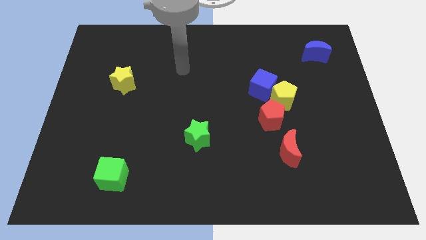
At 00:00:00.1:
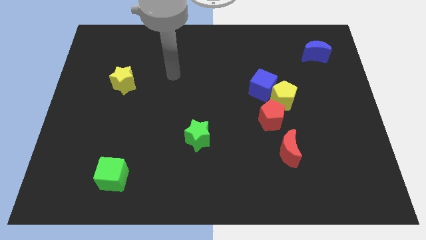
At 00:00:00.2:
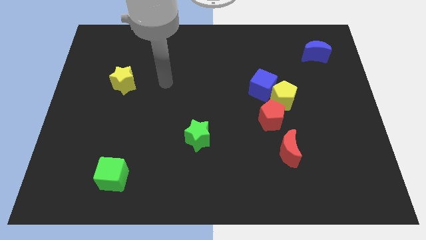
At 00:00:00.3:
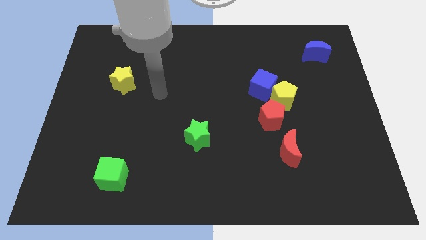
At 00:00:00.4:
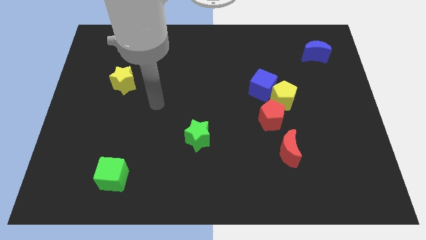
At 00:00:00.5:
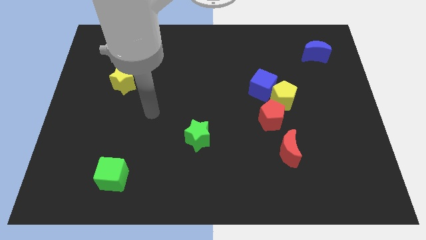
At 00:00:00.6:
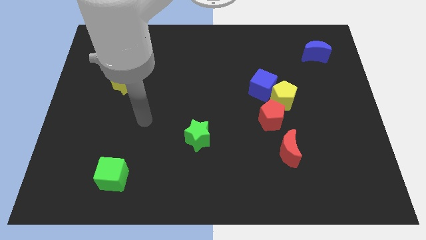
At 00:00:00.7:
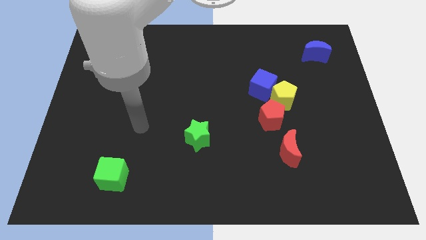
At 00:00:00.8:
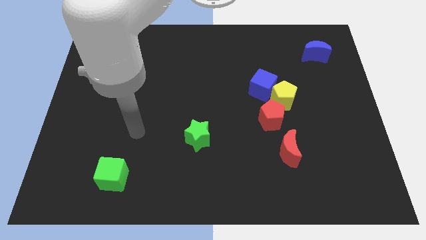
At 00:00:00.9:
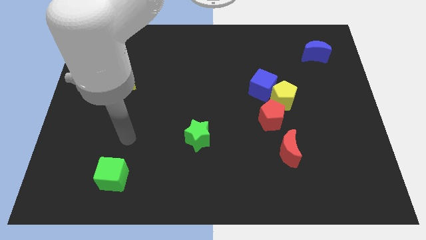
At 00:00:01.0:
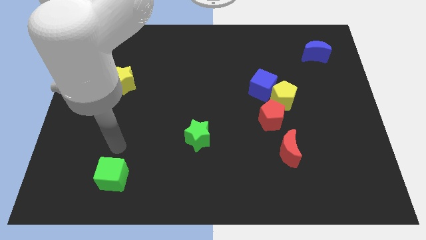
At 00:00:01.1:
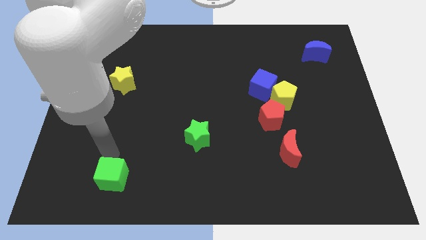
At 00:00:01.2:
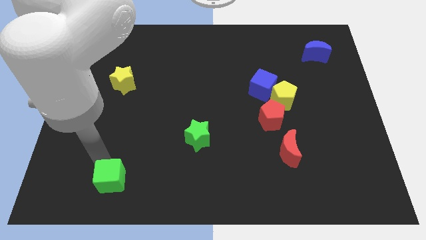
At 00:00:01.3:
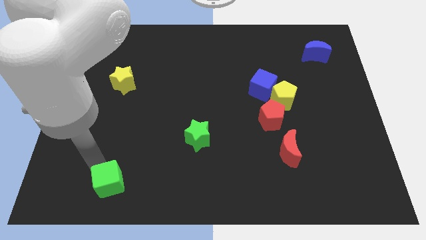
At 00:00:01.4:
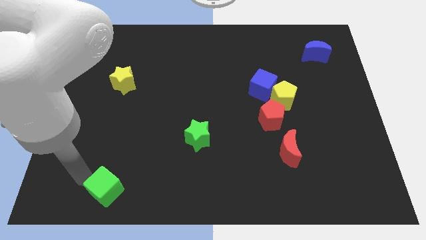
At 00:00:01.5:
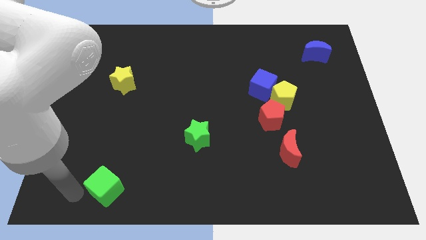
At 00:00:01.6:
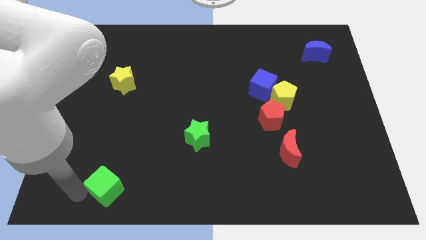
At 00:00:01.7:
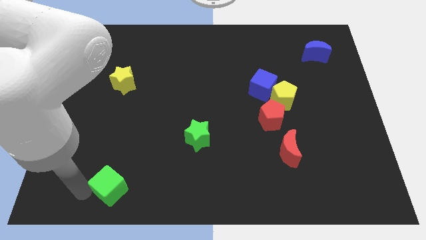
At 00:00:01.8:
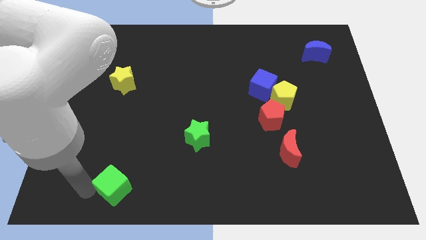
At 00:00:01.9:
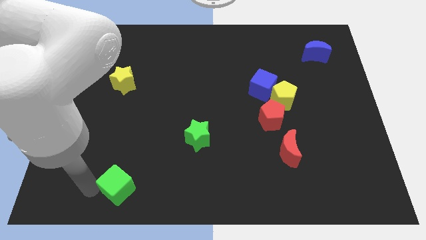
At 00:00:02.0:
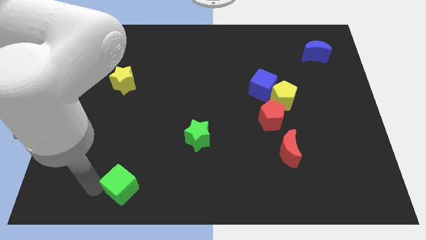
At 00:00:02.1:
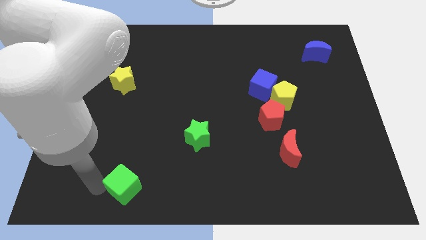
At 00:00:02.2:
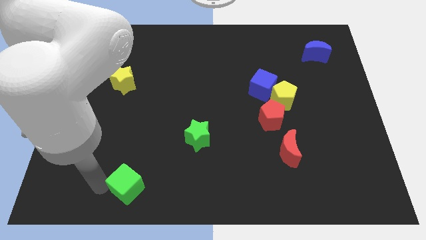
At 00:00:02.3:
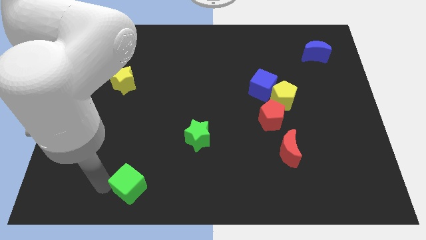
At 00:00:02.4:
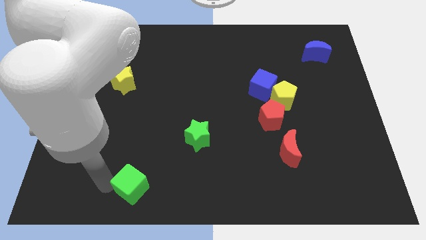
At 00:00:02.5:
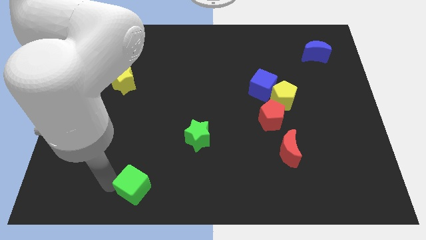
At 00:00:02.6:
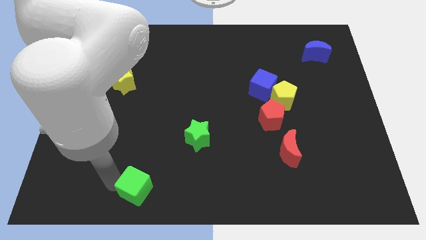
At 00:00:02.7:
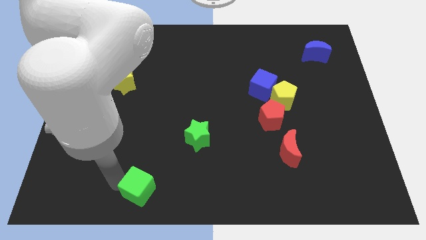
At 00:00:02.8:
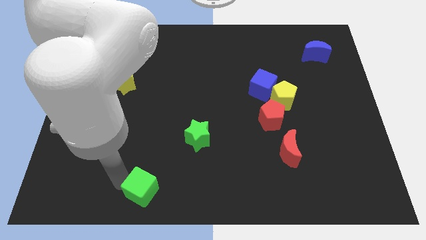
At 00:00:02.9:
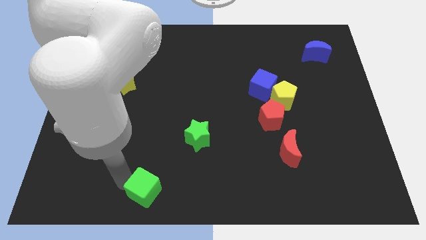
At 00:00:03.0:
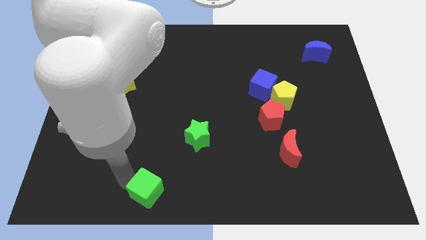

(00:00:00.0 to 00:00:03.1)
slightly slide the green cube to the right

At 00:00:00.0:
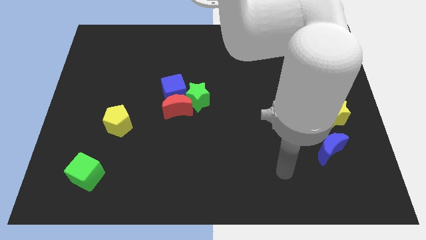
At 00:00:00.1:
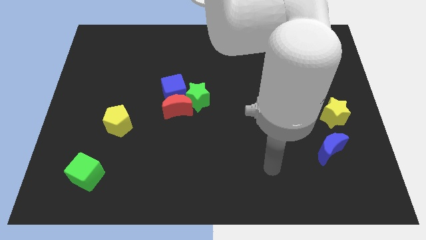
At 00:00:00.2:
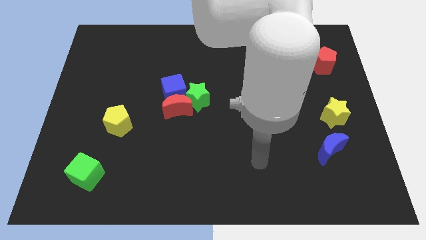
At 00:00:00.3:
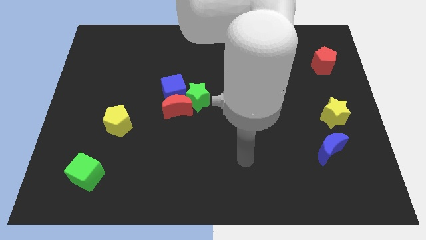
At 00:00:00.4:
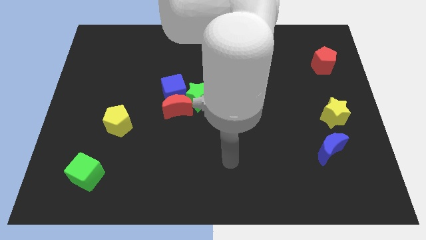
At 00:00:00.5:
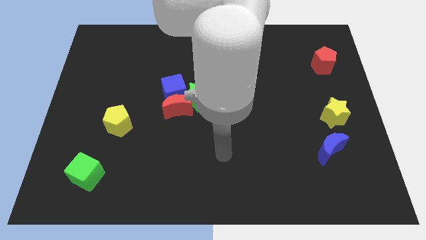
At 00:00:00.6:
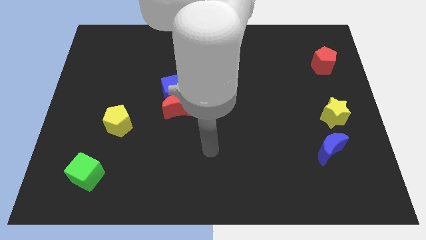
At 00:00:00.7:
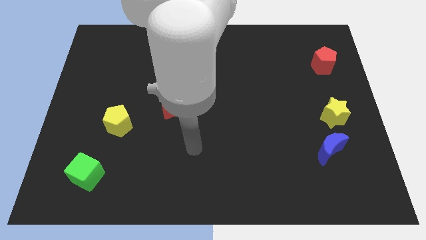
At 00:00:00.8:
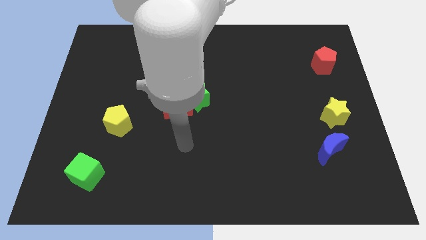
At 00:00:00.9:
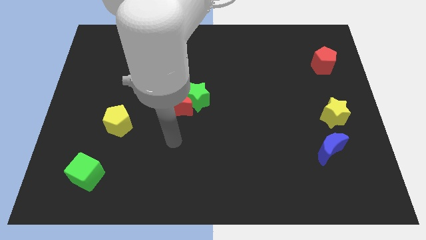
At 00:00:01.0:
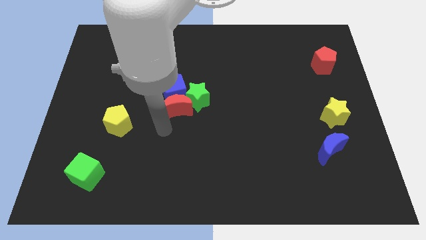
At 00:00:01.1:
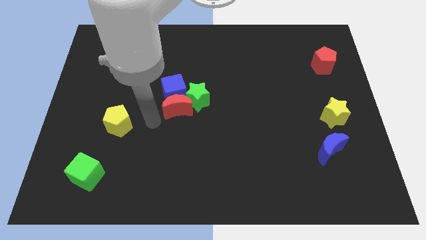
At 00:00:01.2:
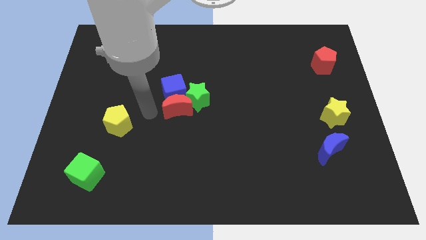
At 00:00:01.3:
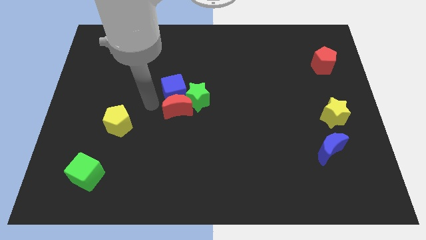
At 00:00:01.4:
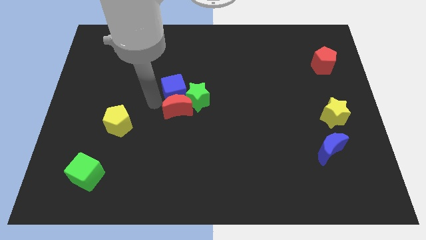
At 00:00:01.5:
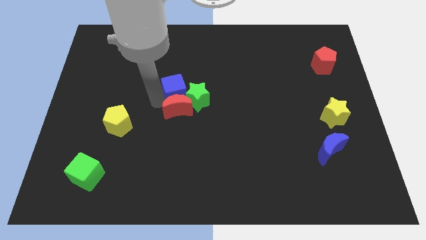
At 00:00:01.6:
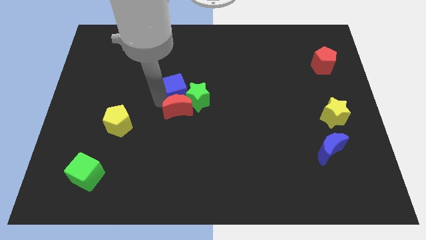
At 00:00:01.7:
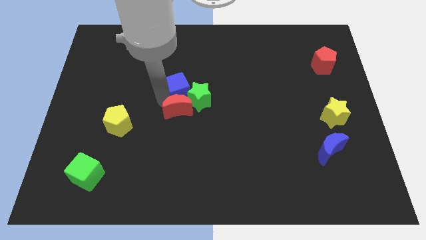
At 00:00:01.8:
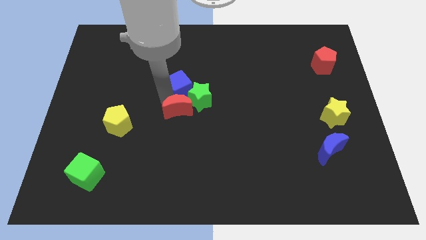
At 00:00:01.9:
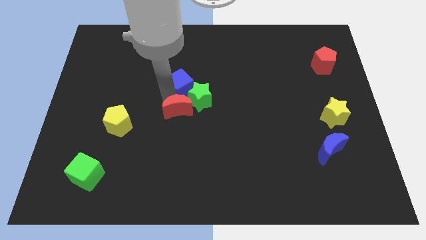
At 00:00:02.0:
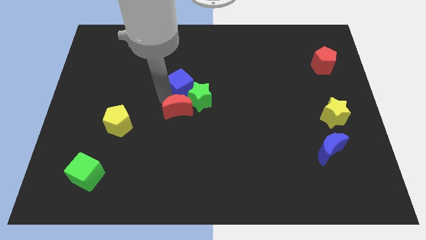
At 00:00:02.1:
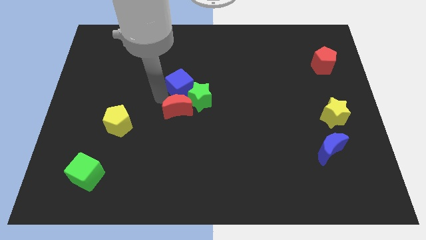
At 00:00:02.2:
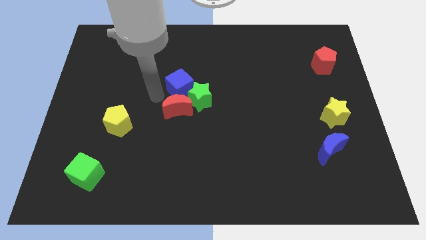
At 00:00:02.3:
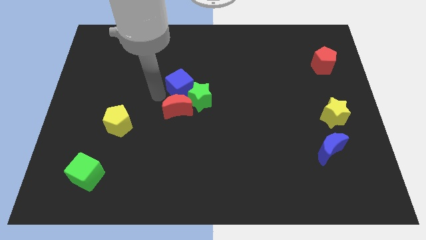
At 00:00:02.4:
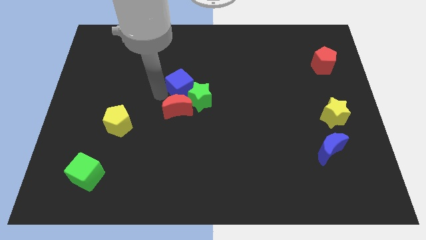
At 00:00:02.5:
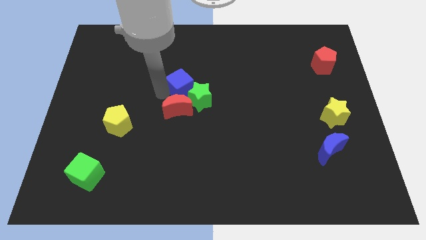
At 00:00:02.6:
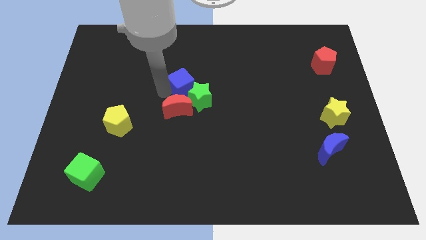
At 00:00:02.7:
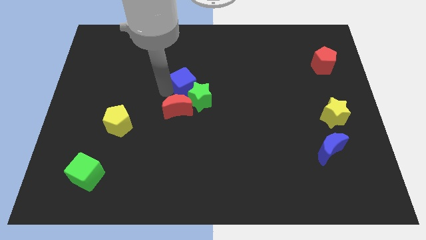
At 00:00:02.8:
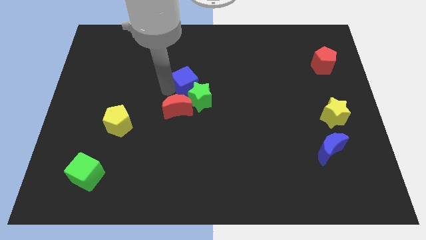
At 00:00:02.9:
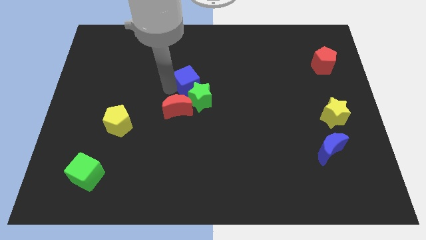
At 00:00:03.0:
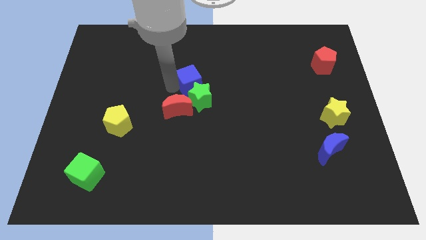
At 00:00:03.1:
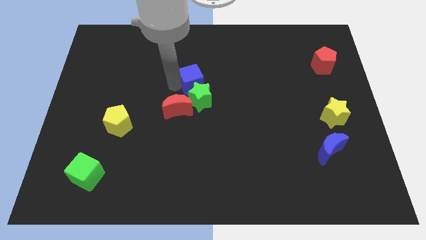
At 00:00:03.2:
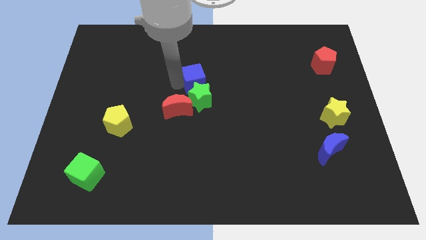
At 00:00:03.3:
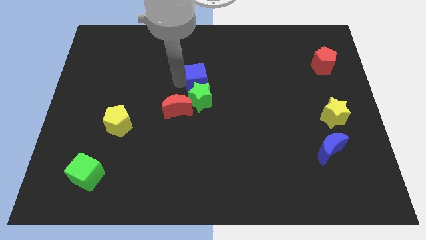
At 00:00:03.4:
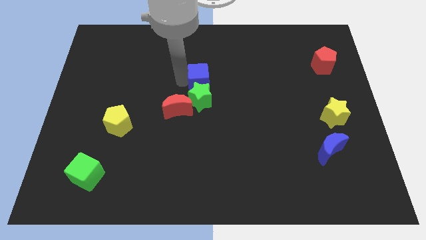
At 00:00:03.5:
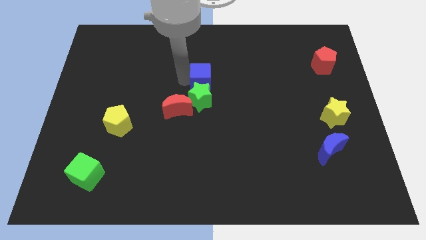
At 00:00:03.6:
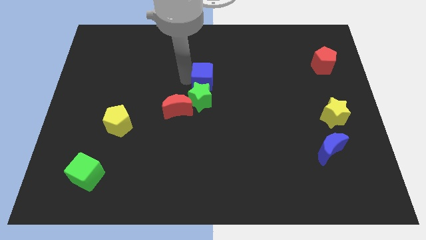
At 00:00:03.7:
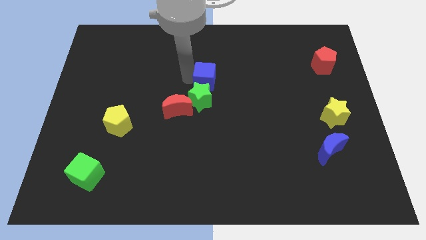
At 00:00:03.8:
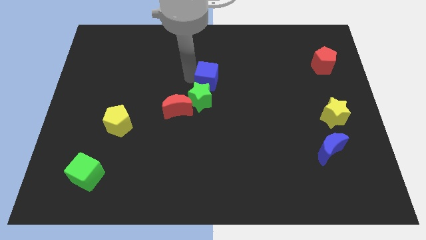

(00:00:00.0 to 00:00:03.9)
push the blue cube right somewhat

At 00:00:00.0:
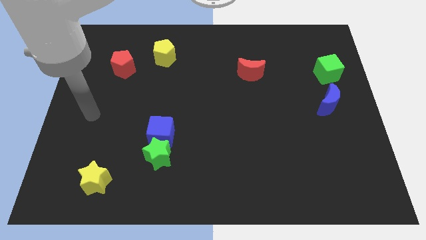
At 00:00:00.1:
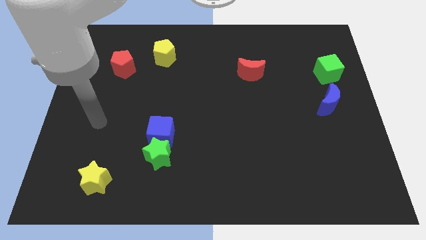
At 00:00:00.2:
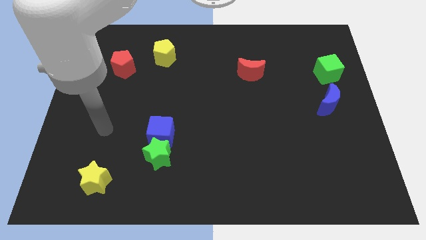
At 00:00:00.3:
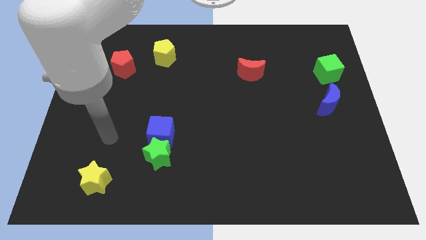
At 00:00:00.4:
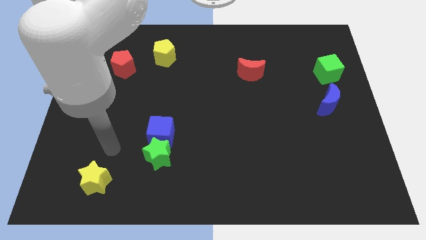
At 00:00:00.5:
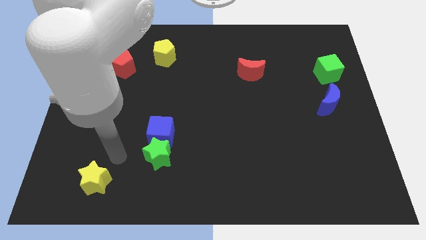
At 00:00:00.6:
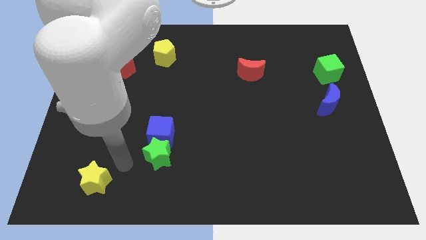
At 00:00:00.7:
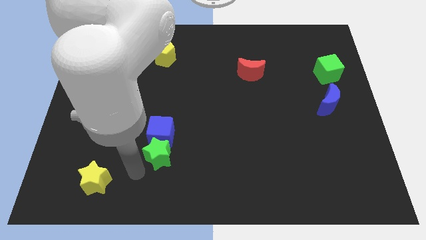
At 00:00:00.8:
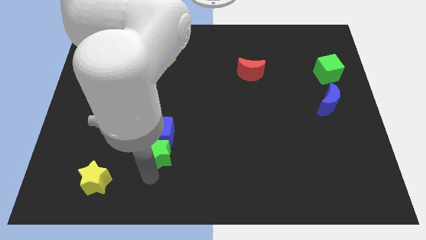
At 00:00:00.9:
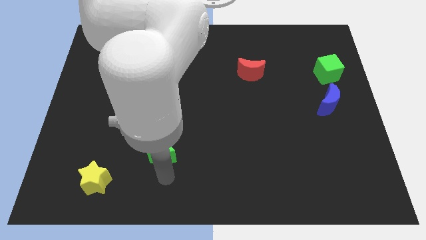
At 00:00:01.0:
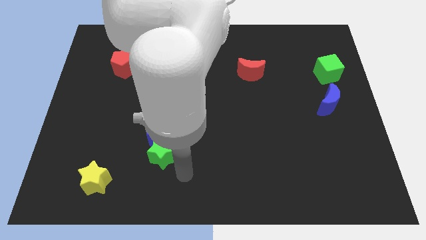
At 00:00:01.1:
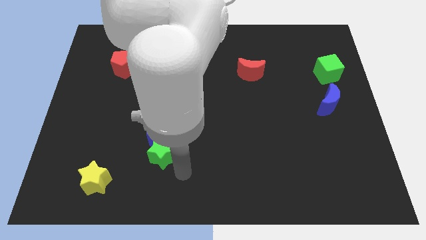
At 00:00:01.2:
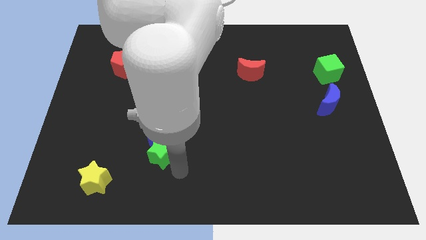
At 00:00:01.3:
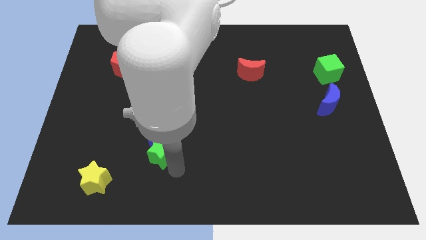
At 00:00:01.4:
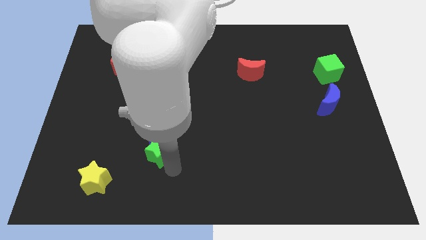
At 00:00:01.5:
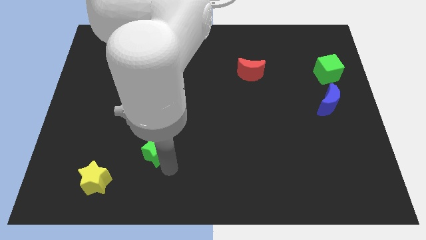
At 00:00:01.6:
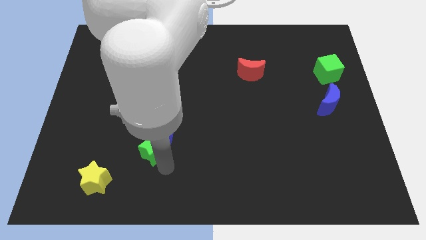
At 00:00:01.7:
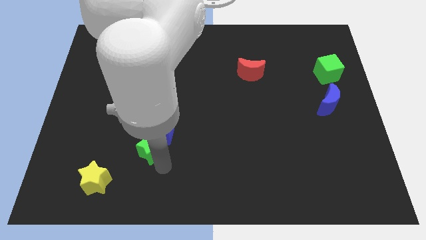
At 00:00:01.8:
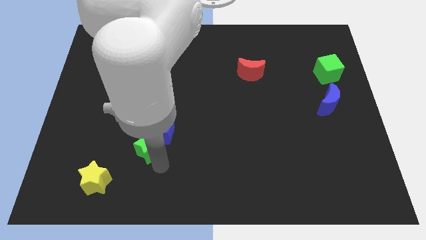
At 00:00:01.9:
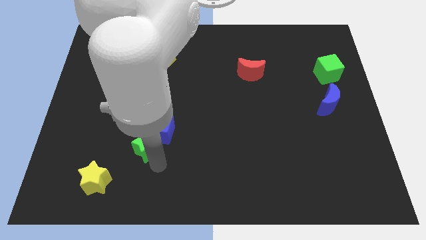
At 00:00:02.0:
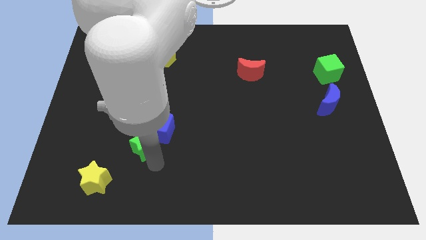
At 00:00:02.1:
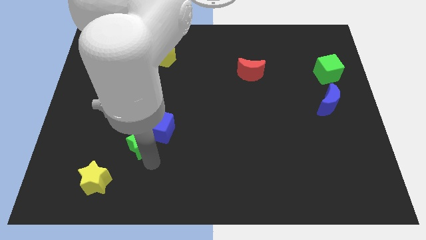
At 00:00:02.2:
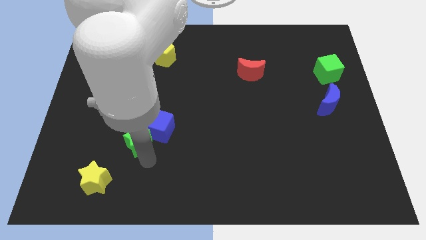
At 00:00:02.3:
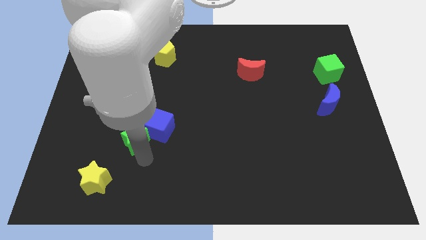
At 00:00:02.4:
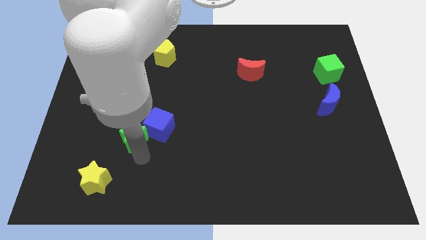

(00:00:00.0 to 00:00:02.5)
push the green star a bit upwards and left diagonally
